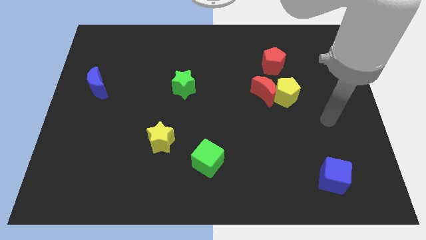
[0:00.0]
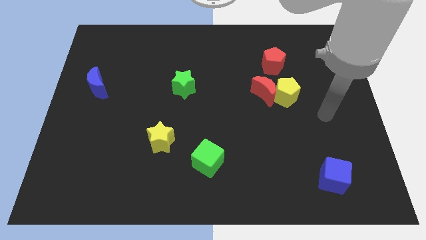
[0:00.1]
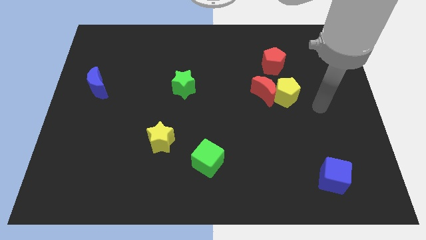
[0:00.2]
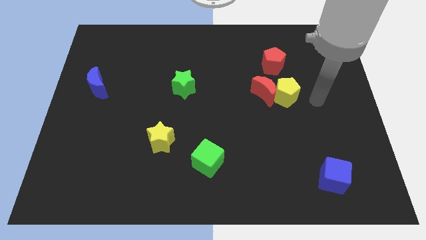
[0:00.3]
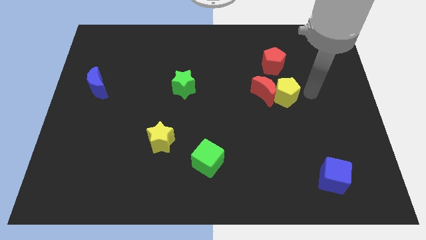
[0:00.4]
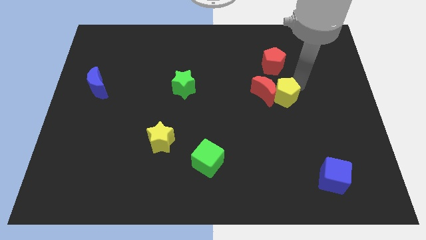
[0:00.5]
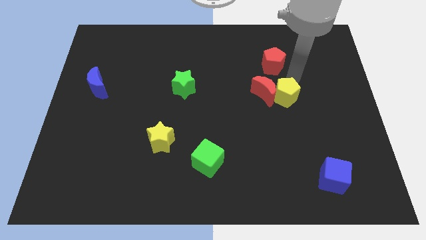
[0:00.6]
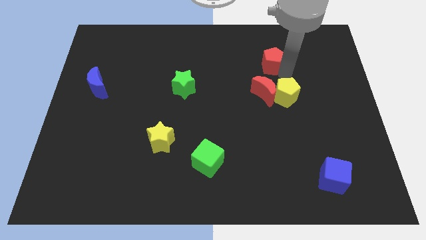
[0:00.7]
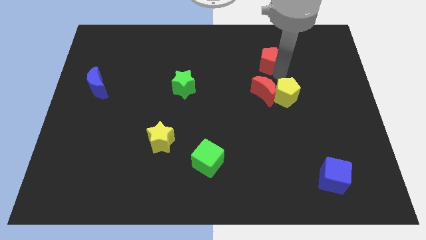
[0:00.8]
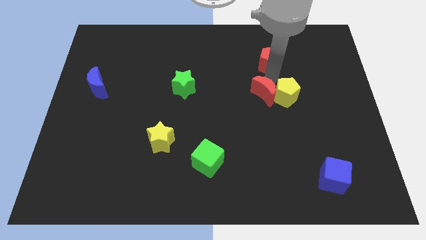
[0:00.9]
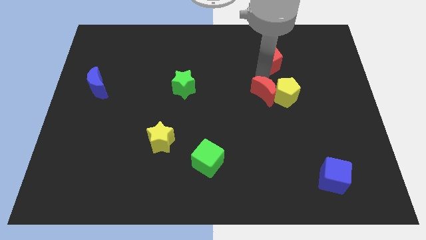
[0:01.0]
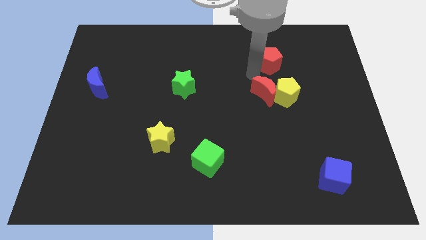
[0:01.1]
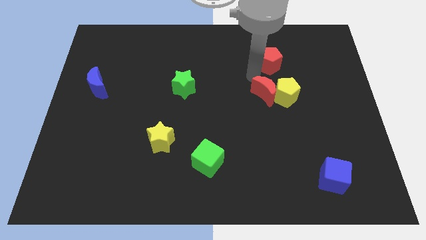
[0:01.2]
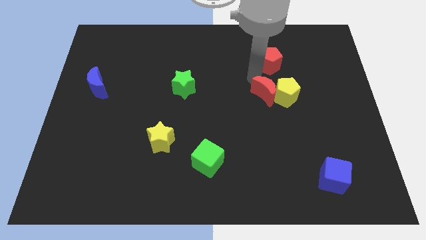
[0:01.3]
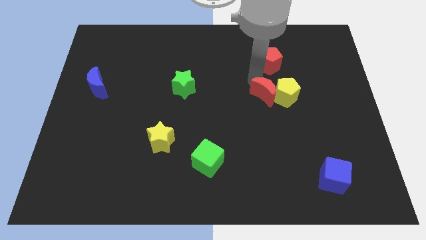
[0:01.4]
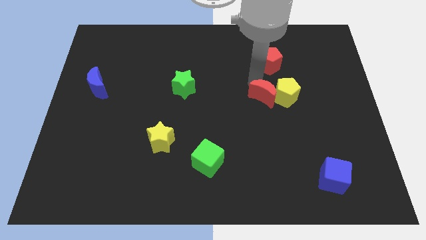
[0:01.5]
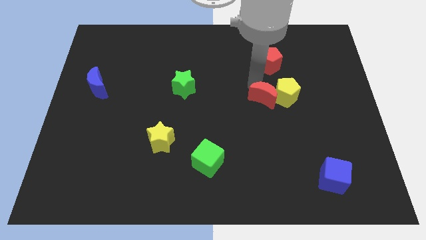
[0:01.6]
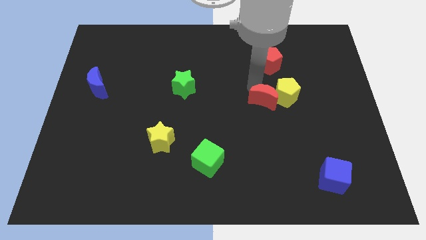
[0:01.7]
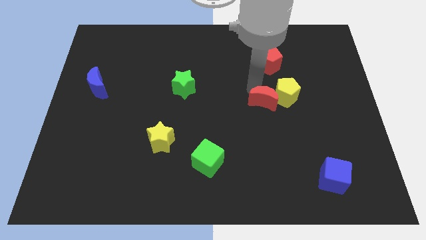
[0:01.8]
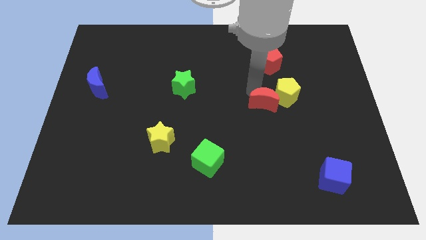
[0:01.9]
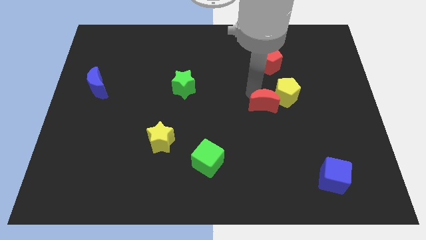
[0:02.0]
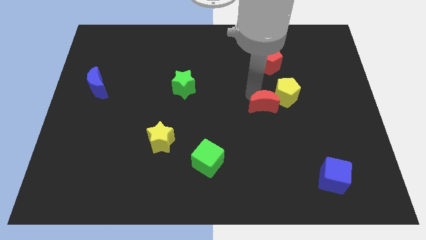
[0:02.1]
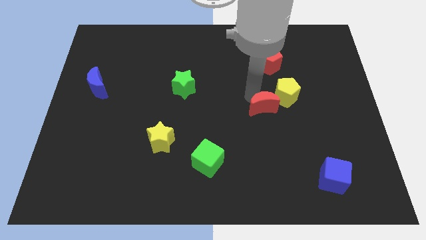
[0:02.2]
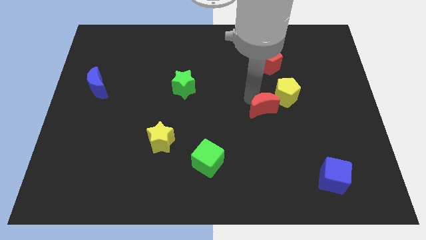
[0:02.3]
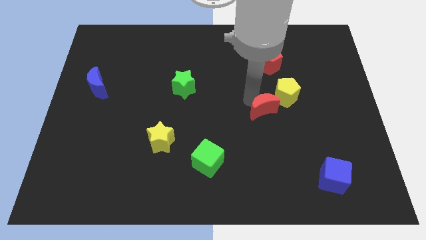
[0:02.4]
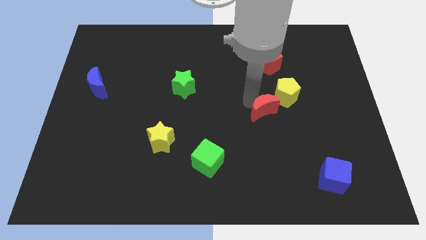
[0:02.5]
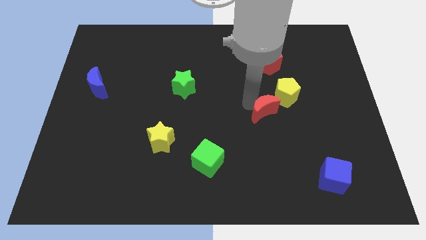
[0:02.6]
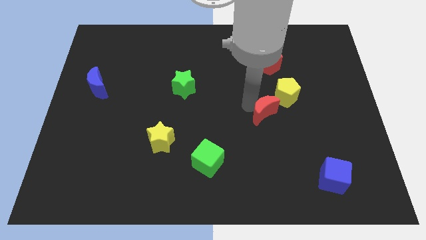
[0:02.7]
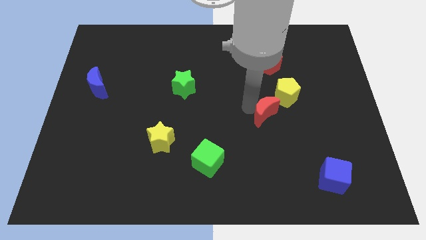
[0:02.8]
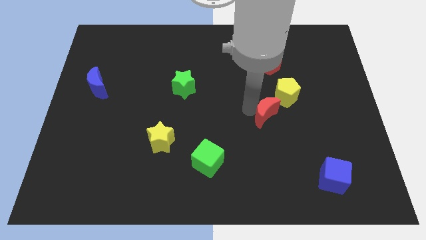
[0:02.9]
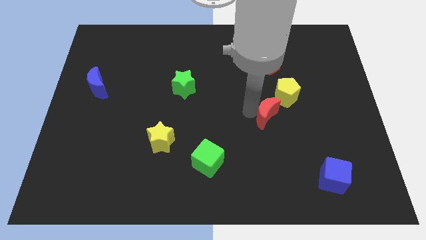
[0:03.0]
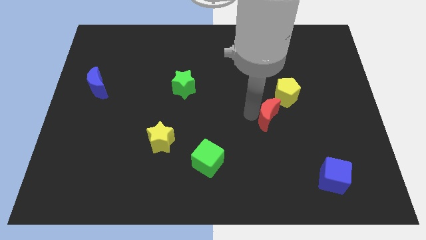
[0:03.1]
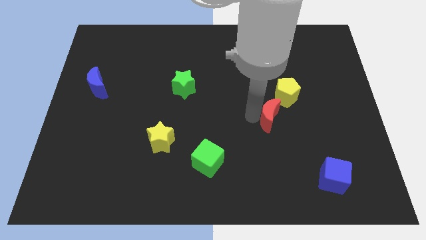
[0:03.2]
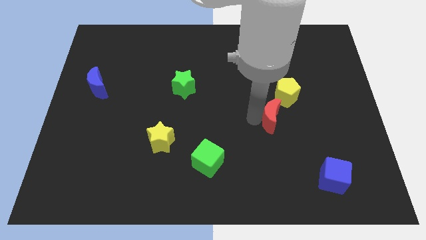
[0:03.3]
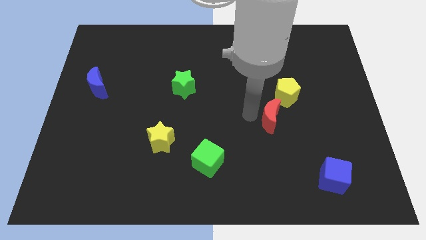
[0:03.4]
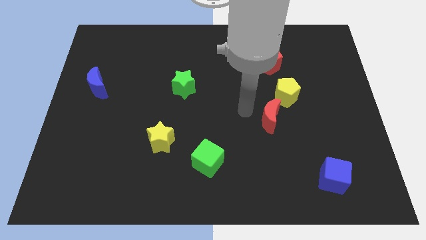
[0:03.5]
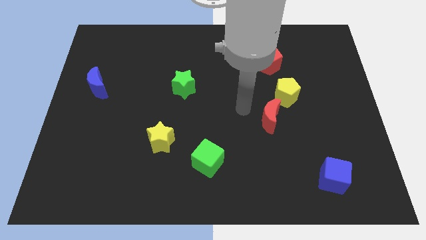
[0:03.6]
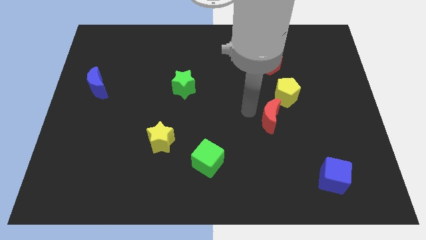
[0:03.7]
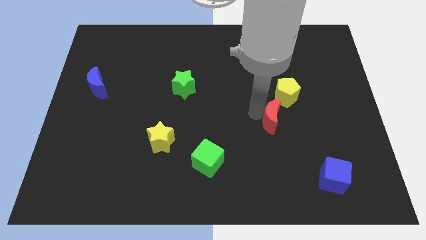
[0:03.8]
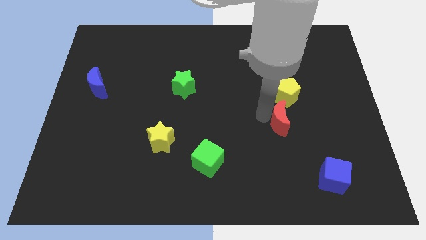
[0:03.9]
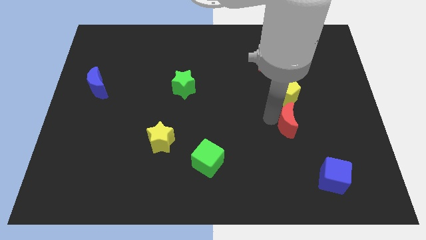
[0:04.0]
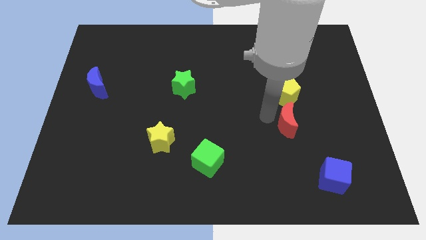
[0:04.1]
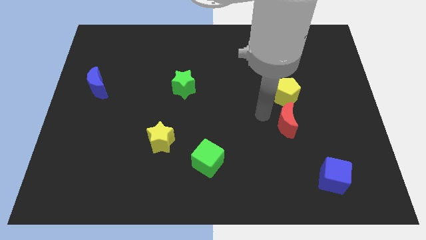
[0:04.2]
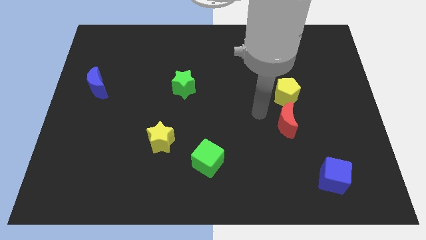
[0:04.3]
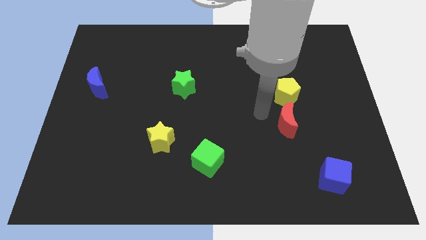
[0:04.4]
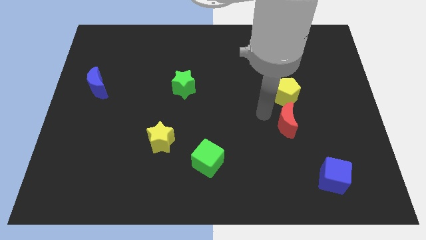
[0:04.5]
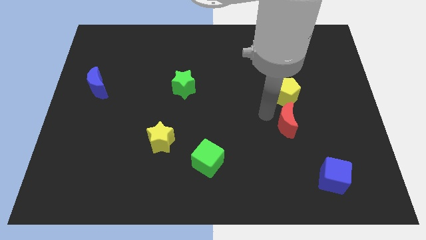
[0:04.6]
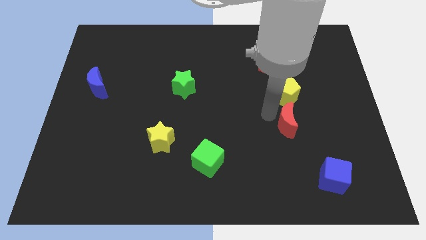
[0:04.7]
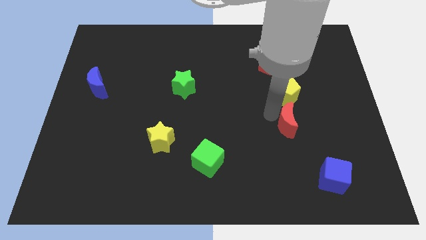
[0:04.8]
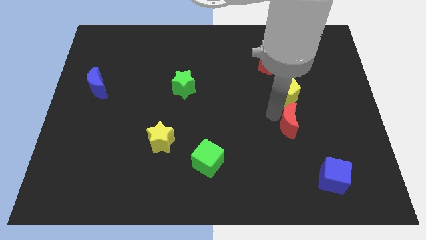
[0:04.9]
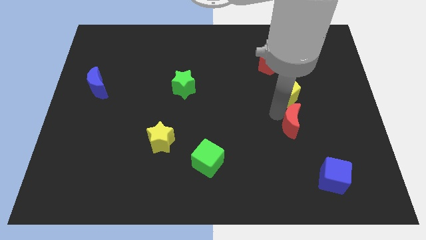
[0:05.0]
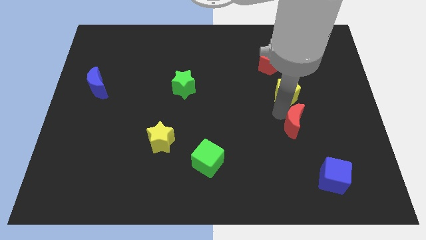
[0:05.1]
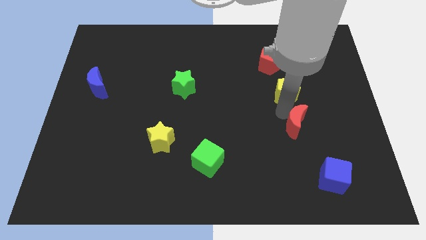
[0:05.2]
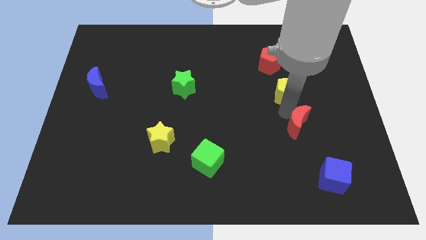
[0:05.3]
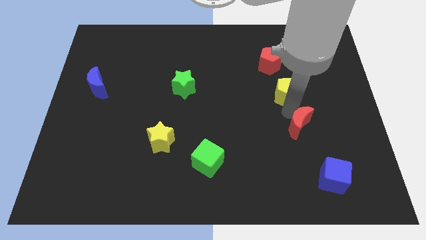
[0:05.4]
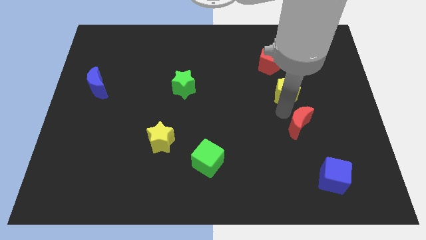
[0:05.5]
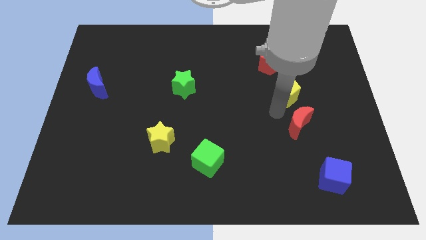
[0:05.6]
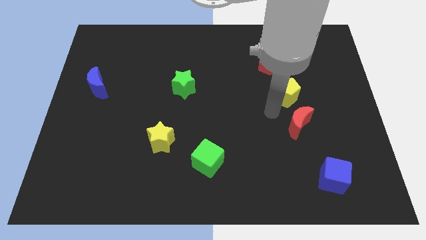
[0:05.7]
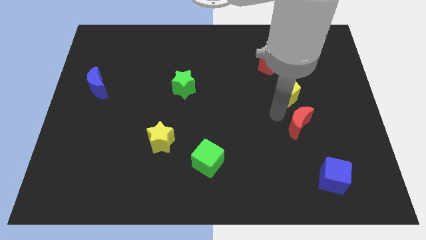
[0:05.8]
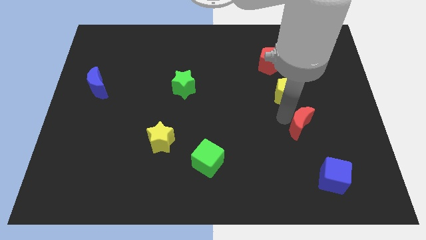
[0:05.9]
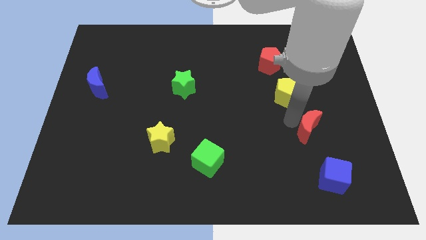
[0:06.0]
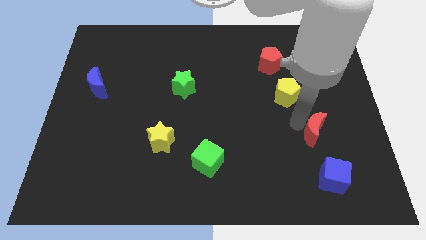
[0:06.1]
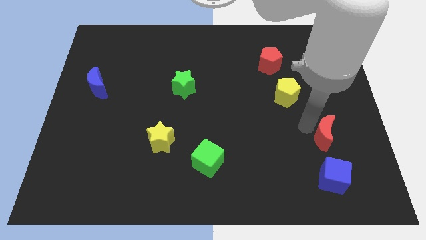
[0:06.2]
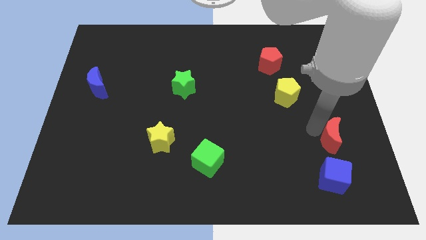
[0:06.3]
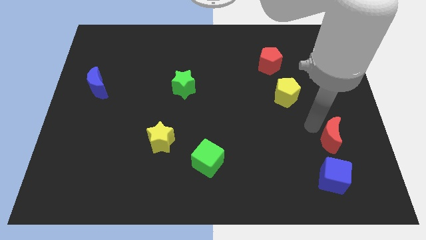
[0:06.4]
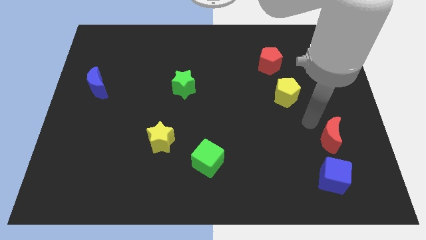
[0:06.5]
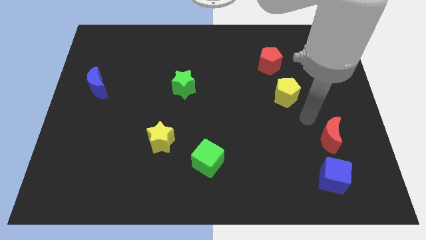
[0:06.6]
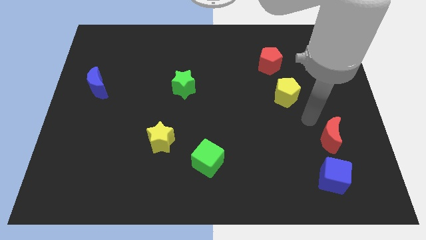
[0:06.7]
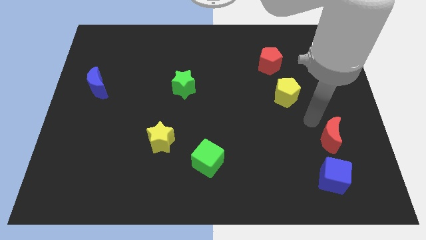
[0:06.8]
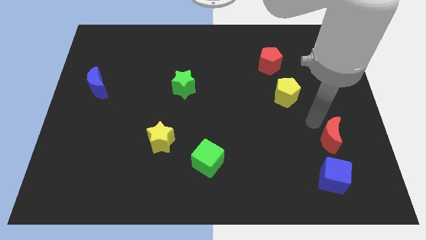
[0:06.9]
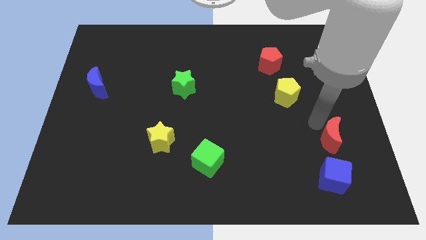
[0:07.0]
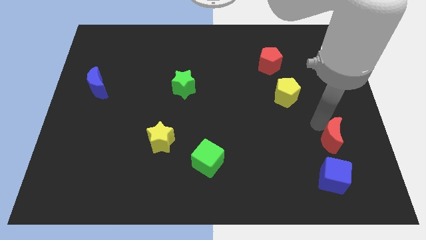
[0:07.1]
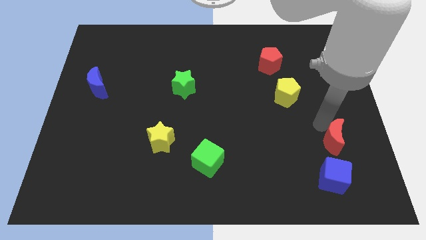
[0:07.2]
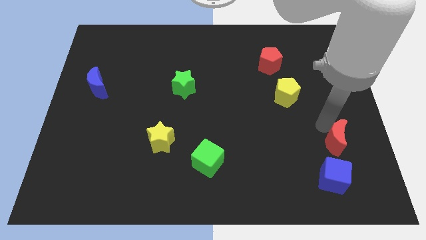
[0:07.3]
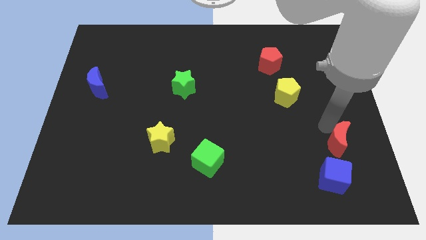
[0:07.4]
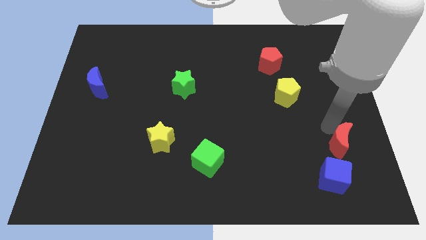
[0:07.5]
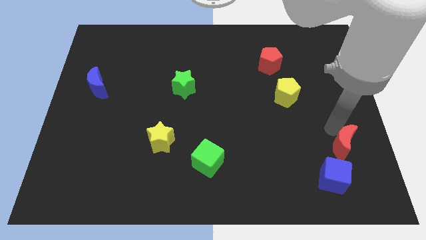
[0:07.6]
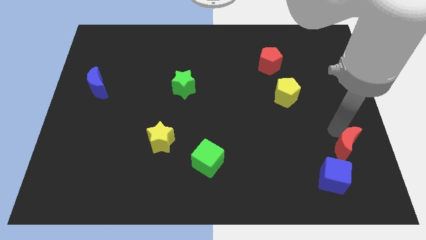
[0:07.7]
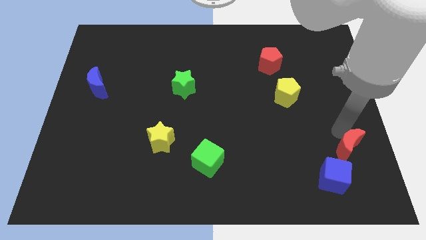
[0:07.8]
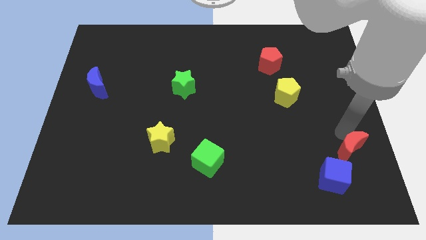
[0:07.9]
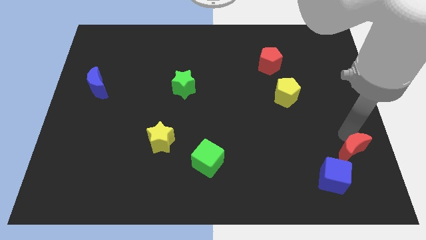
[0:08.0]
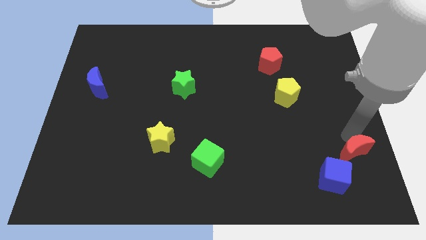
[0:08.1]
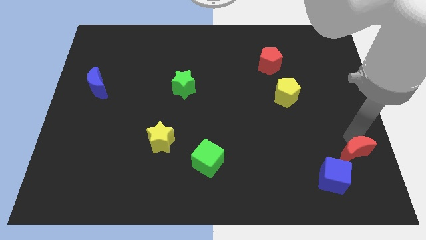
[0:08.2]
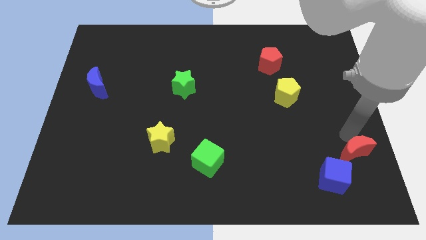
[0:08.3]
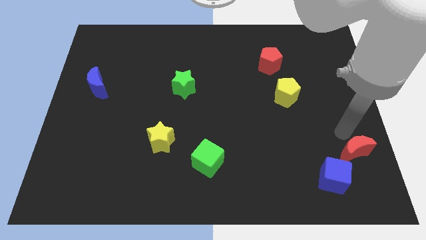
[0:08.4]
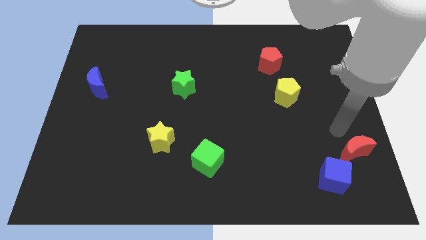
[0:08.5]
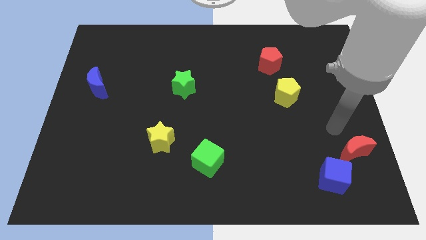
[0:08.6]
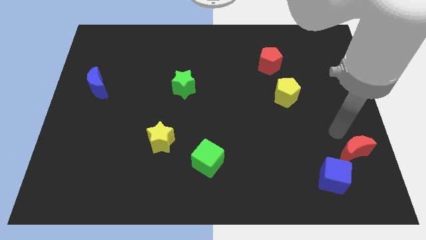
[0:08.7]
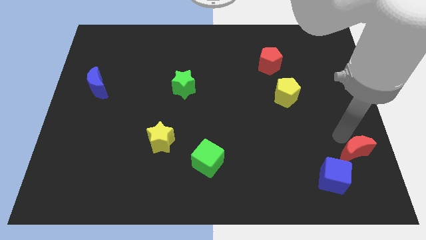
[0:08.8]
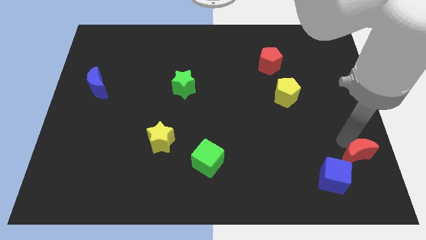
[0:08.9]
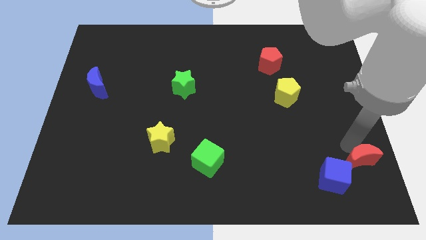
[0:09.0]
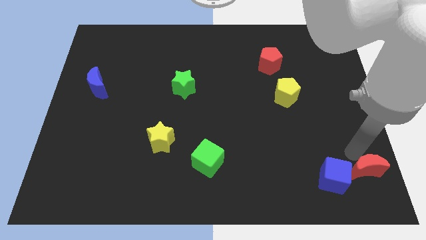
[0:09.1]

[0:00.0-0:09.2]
push the red moon to the bottom right corner
